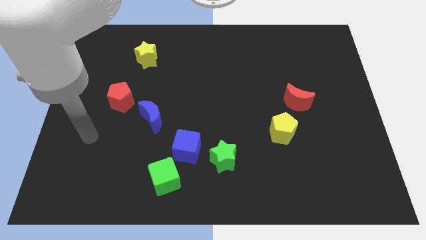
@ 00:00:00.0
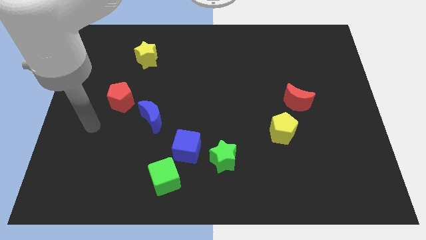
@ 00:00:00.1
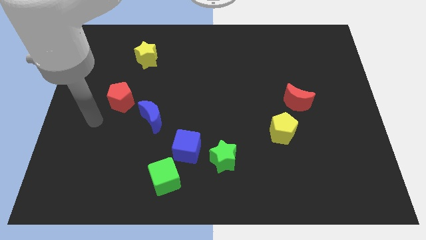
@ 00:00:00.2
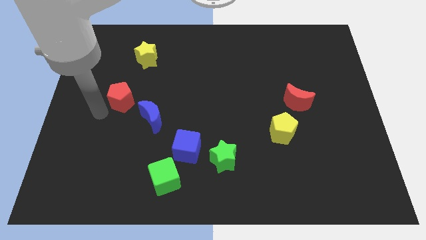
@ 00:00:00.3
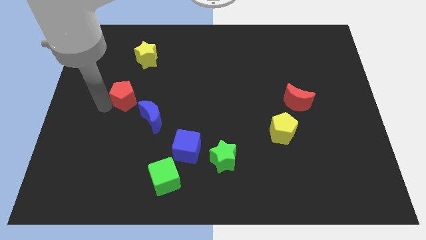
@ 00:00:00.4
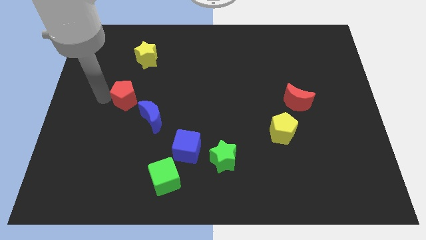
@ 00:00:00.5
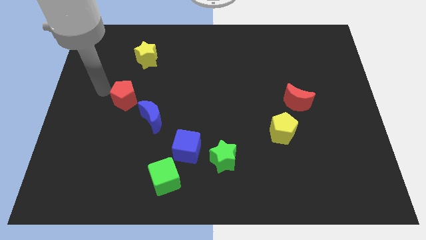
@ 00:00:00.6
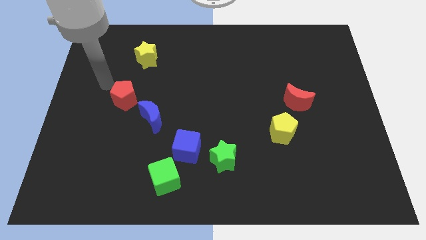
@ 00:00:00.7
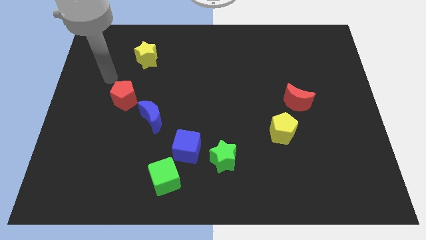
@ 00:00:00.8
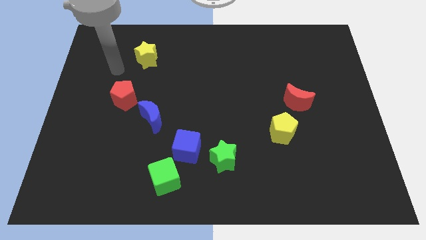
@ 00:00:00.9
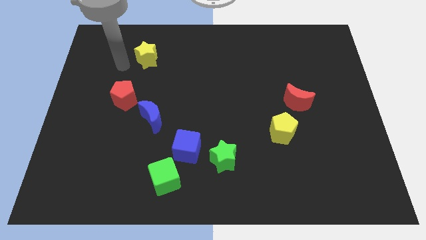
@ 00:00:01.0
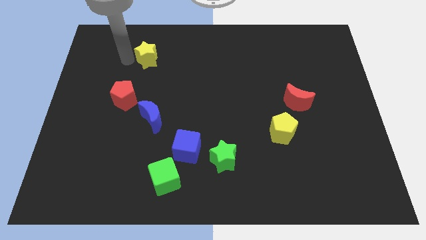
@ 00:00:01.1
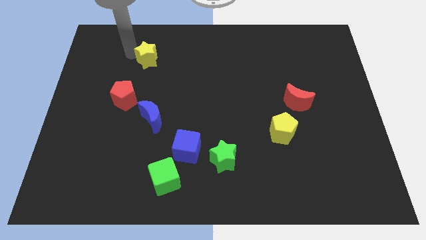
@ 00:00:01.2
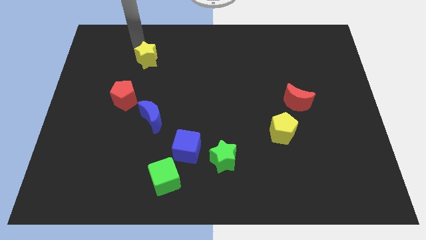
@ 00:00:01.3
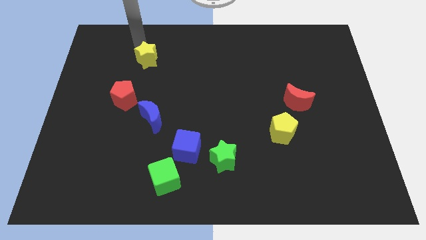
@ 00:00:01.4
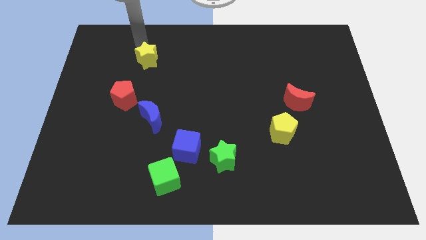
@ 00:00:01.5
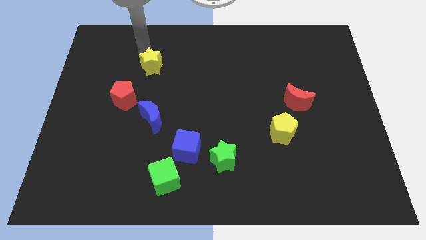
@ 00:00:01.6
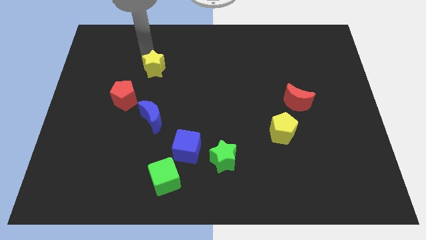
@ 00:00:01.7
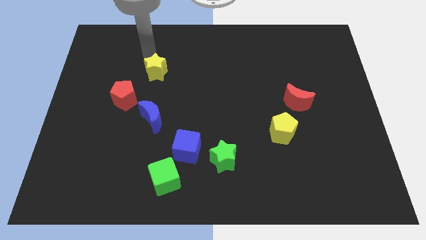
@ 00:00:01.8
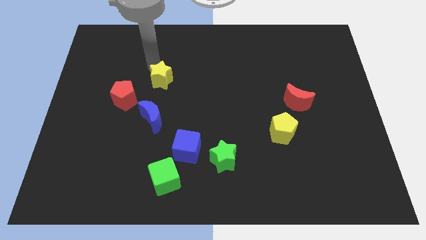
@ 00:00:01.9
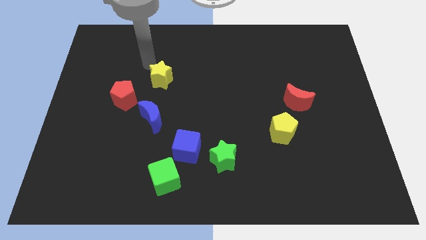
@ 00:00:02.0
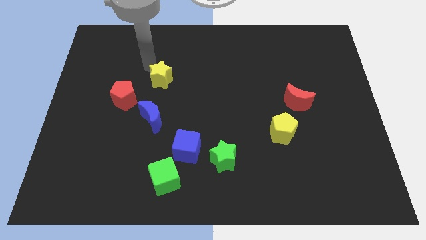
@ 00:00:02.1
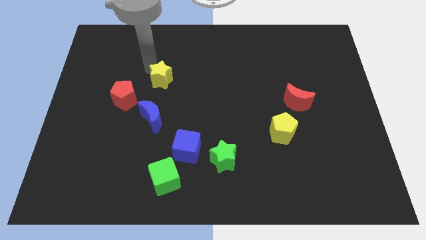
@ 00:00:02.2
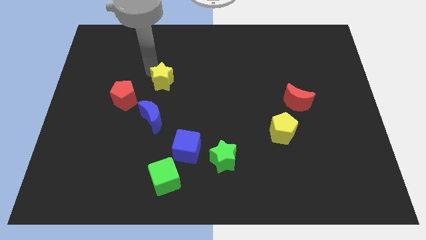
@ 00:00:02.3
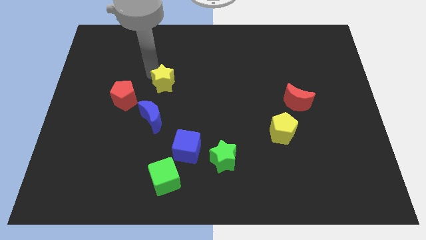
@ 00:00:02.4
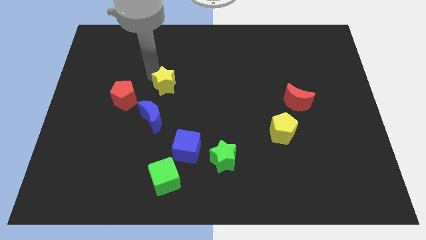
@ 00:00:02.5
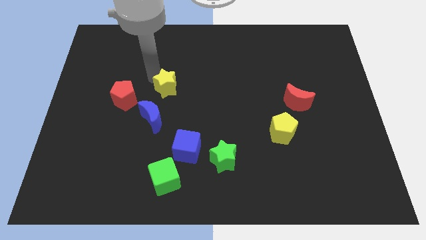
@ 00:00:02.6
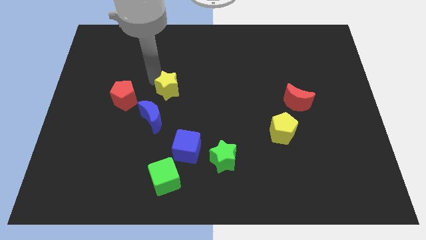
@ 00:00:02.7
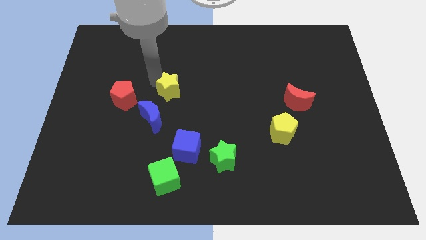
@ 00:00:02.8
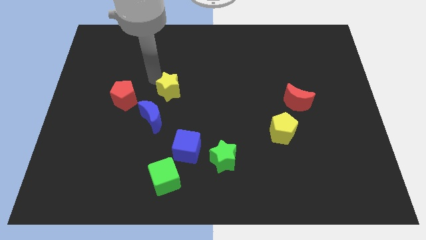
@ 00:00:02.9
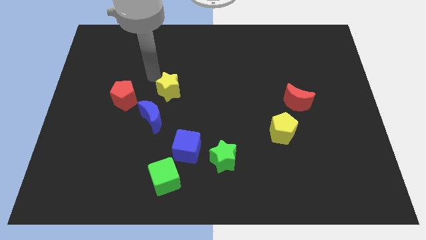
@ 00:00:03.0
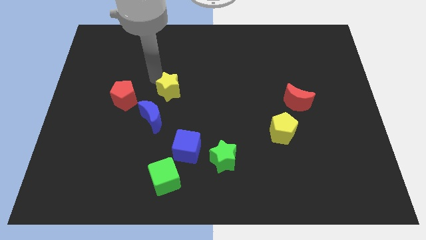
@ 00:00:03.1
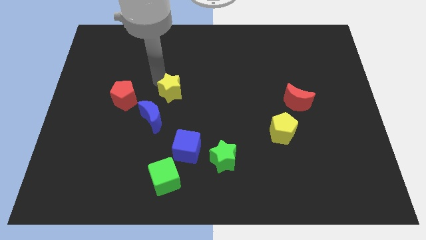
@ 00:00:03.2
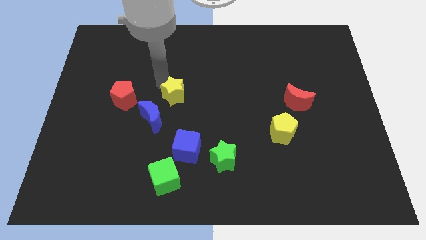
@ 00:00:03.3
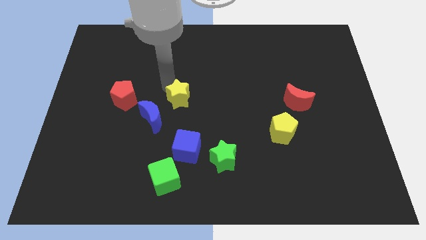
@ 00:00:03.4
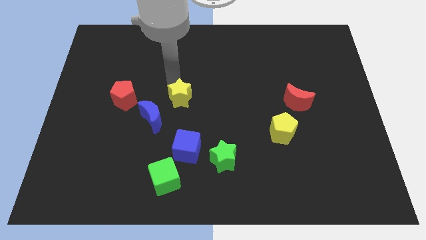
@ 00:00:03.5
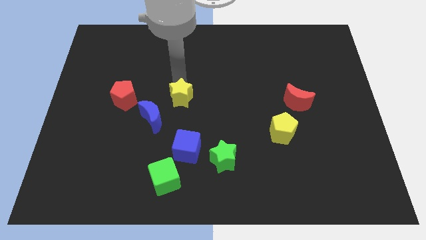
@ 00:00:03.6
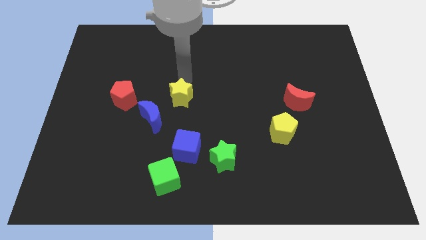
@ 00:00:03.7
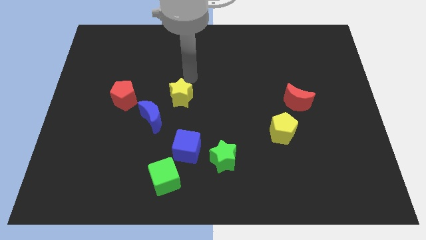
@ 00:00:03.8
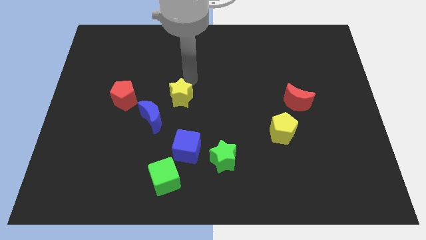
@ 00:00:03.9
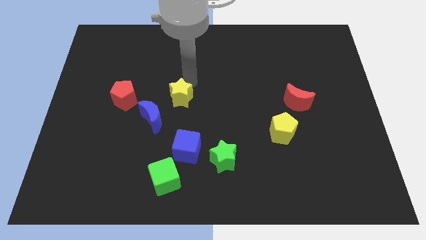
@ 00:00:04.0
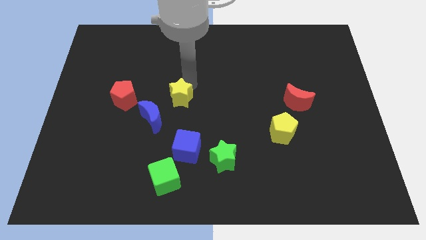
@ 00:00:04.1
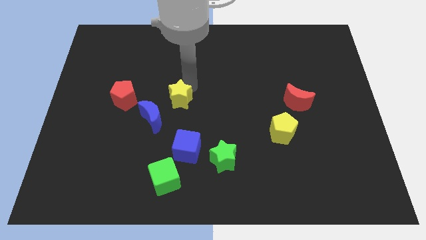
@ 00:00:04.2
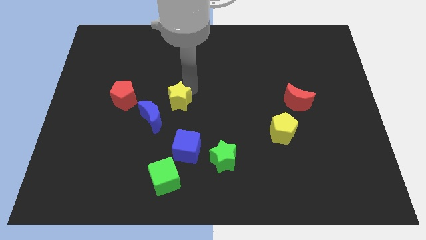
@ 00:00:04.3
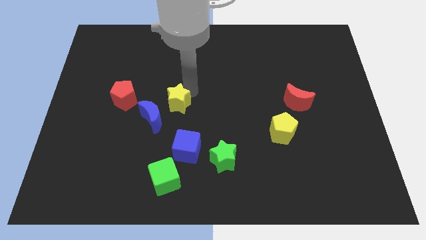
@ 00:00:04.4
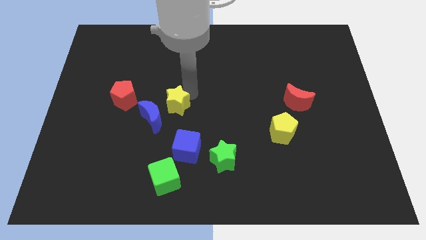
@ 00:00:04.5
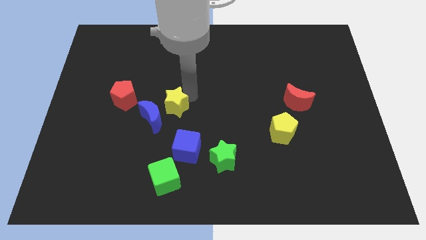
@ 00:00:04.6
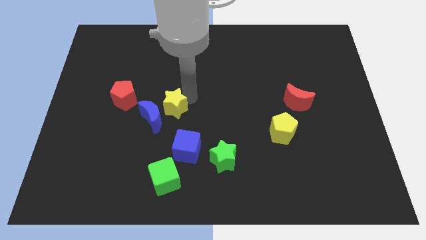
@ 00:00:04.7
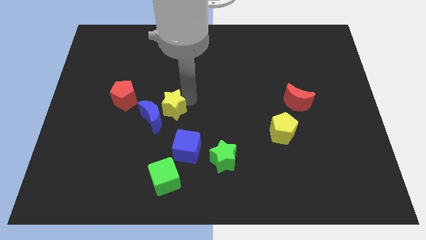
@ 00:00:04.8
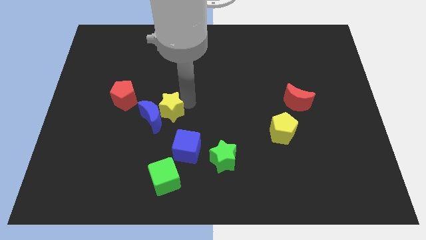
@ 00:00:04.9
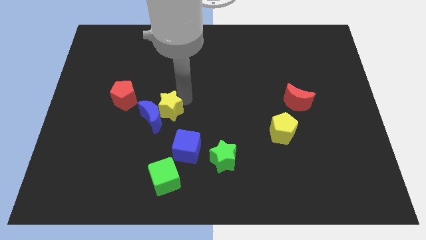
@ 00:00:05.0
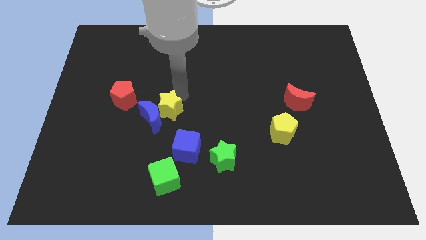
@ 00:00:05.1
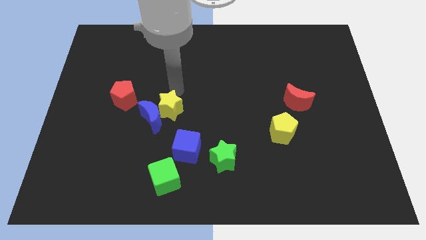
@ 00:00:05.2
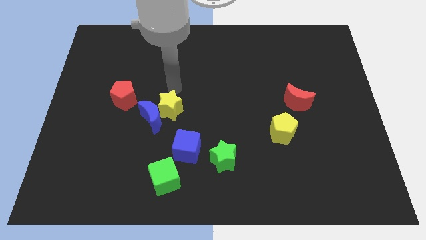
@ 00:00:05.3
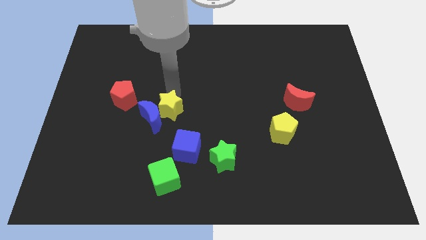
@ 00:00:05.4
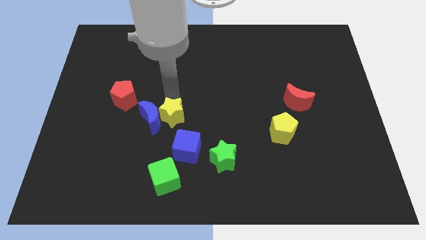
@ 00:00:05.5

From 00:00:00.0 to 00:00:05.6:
move the yellow star above the green cube

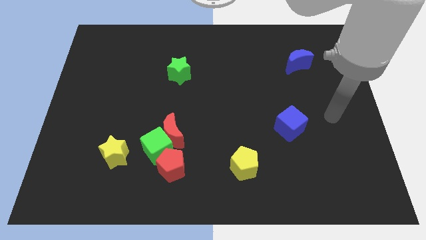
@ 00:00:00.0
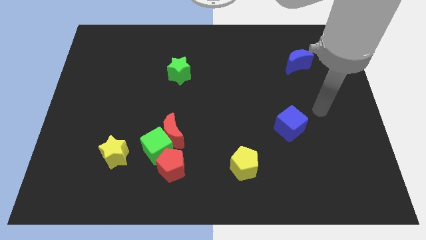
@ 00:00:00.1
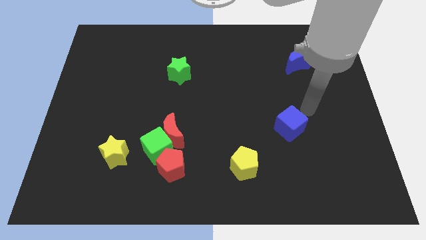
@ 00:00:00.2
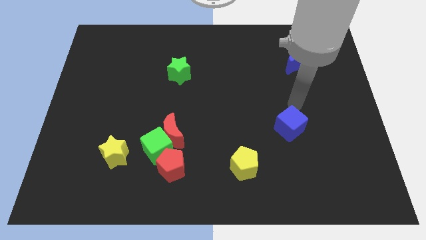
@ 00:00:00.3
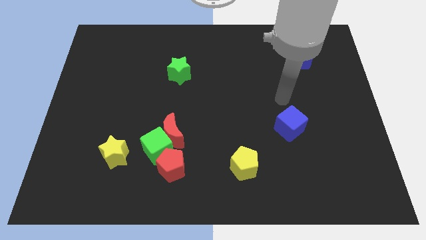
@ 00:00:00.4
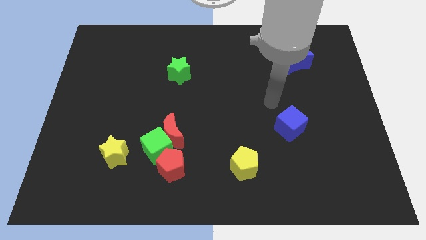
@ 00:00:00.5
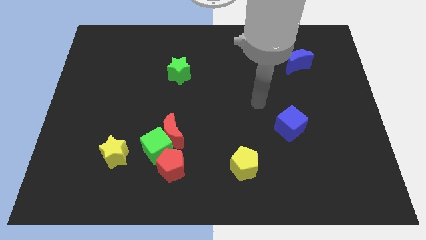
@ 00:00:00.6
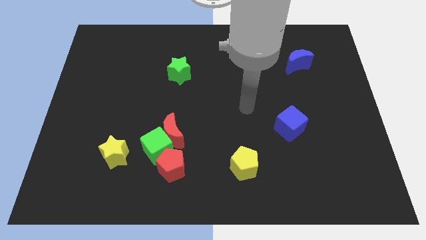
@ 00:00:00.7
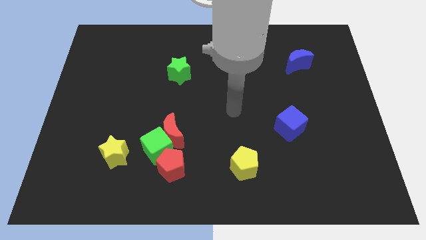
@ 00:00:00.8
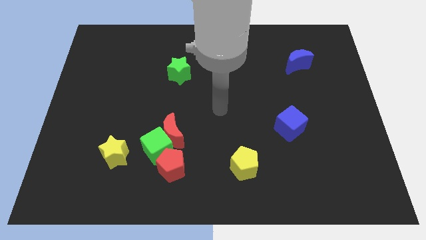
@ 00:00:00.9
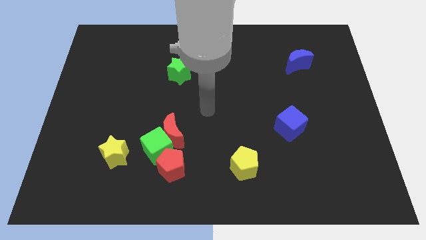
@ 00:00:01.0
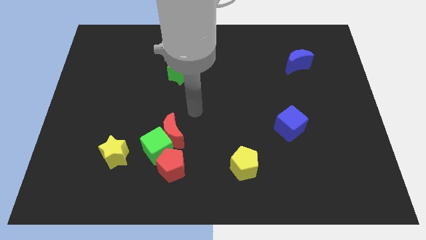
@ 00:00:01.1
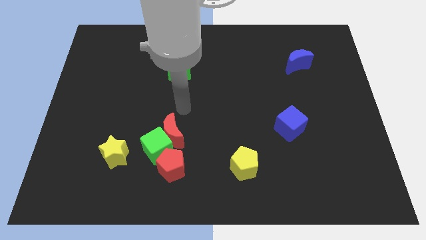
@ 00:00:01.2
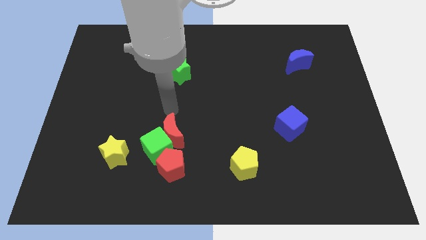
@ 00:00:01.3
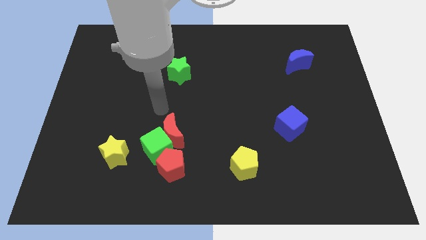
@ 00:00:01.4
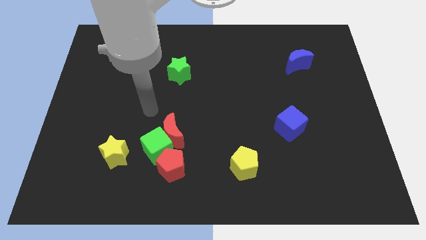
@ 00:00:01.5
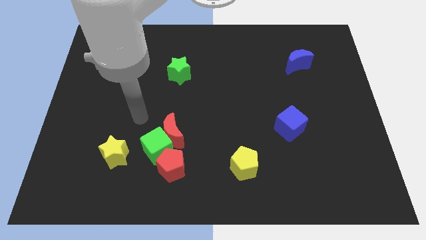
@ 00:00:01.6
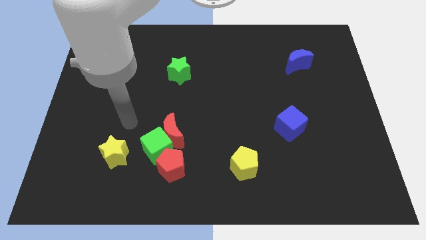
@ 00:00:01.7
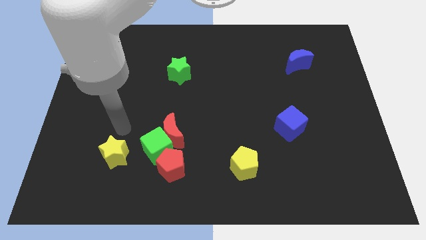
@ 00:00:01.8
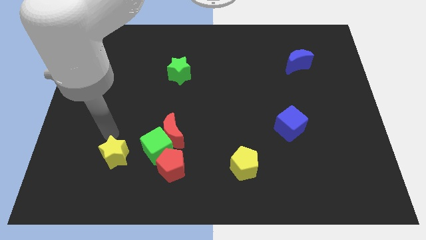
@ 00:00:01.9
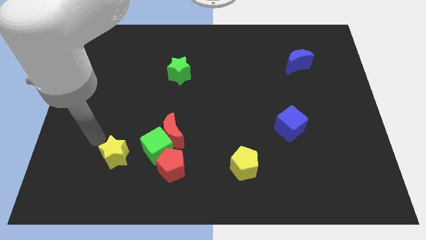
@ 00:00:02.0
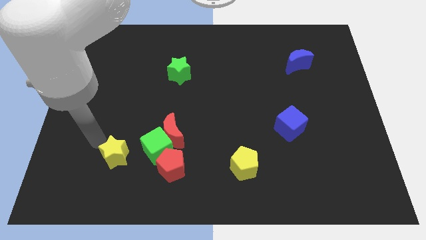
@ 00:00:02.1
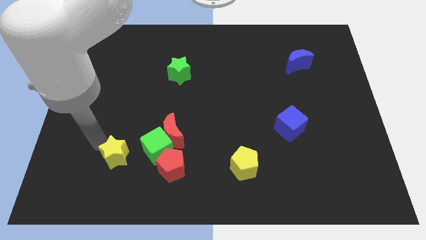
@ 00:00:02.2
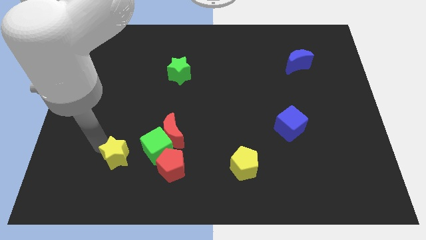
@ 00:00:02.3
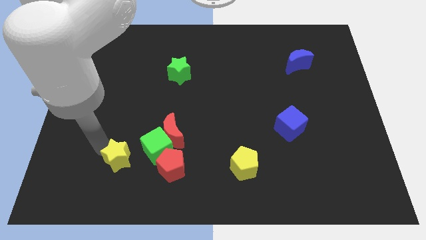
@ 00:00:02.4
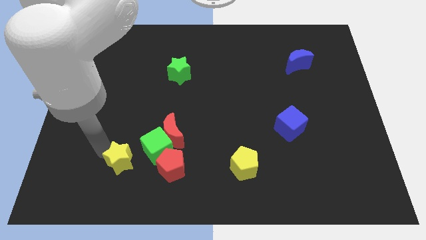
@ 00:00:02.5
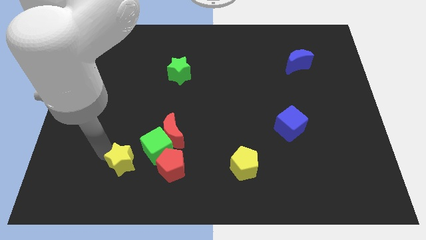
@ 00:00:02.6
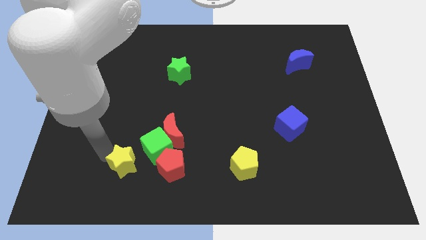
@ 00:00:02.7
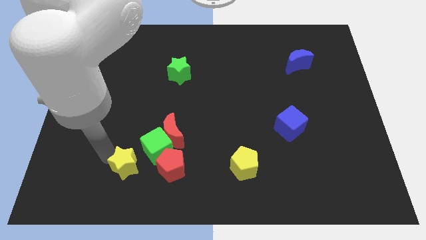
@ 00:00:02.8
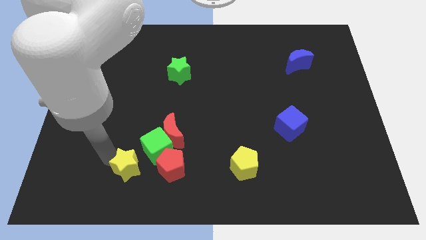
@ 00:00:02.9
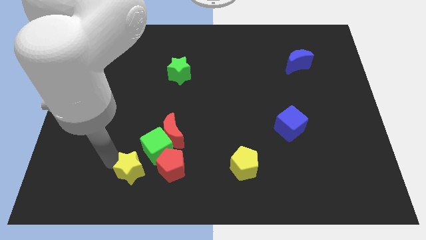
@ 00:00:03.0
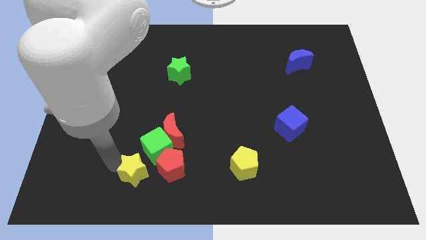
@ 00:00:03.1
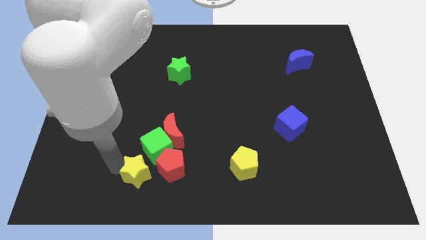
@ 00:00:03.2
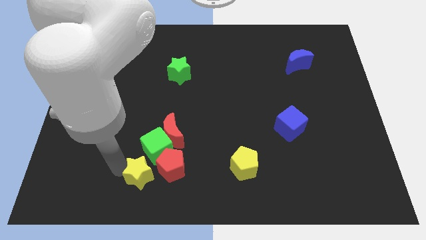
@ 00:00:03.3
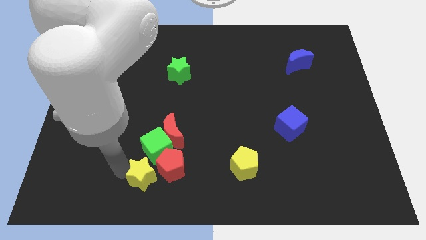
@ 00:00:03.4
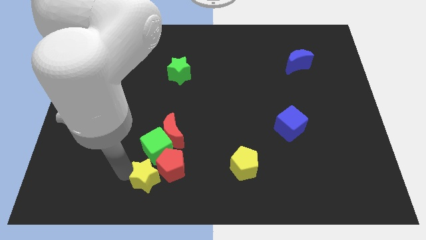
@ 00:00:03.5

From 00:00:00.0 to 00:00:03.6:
slide the yellow star to the bottom side of the red moon
